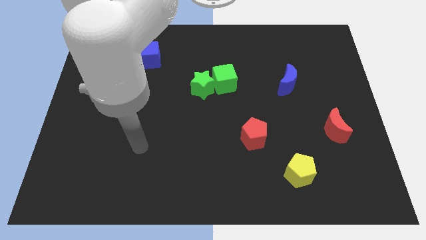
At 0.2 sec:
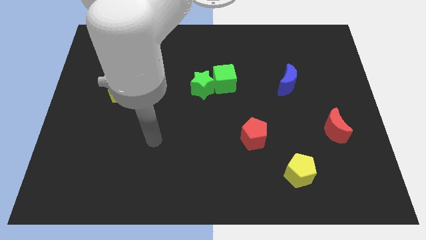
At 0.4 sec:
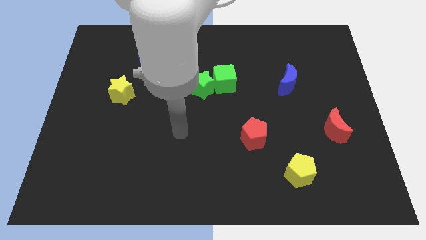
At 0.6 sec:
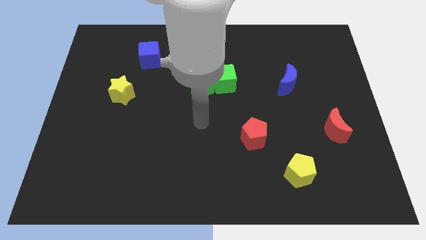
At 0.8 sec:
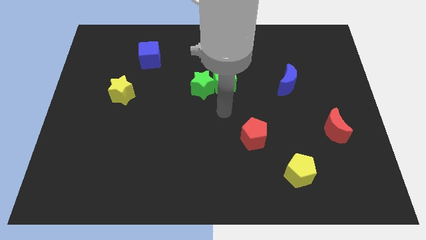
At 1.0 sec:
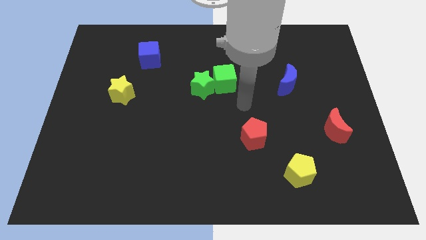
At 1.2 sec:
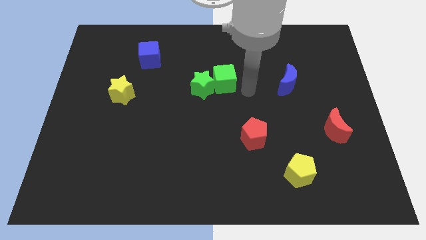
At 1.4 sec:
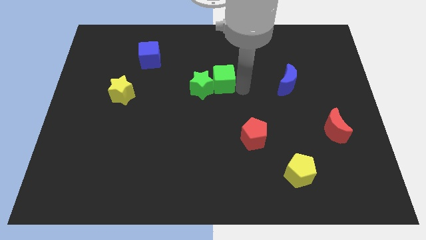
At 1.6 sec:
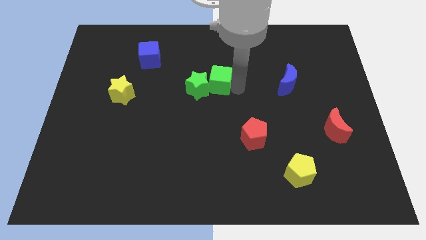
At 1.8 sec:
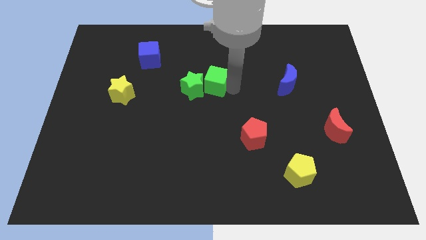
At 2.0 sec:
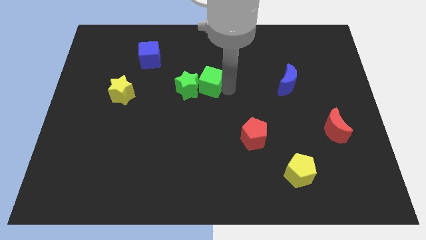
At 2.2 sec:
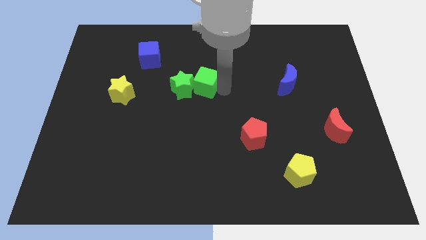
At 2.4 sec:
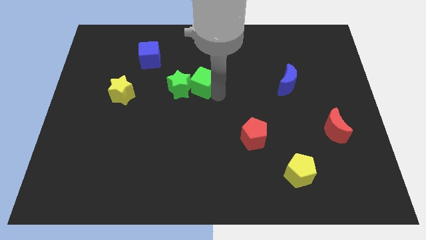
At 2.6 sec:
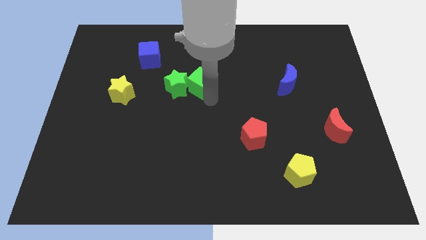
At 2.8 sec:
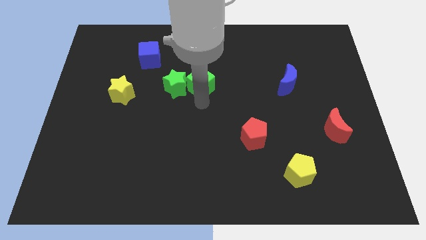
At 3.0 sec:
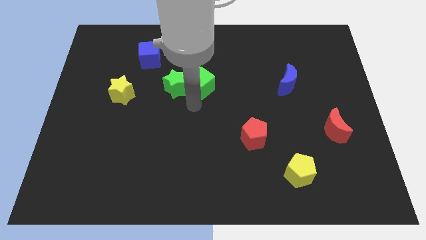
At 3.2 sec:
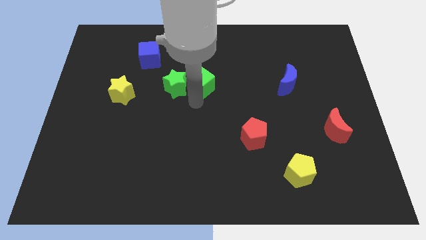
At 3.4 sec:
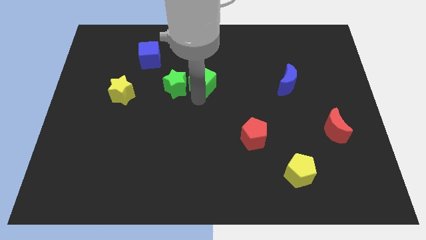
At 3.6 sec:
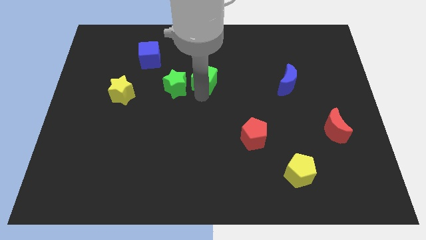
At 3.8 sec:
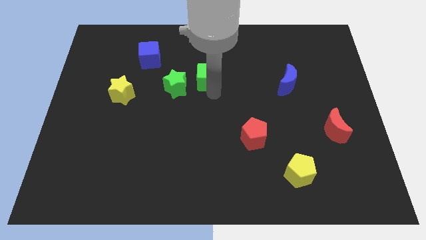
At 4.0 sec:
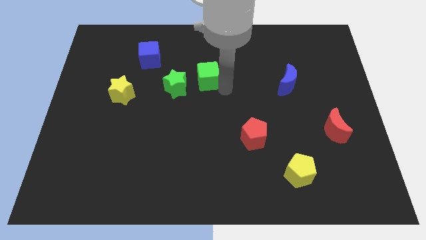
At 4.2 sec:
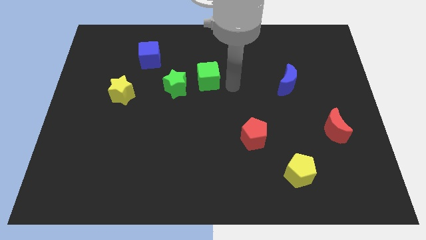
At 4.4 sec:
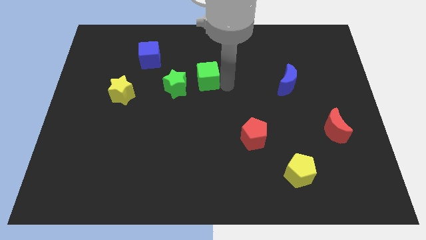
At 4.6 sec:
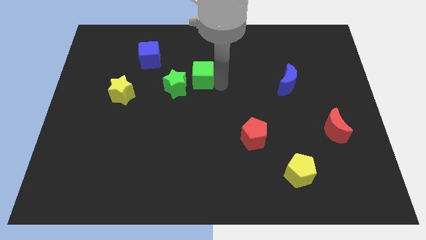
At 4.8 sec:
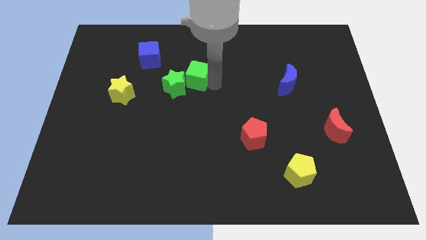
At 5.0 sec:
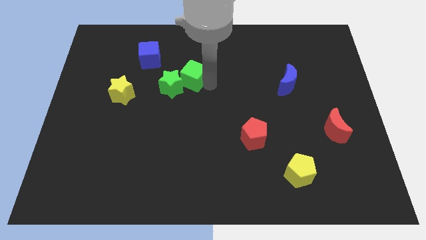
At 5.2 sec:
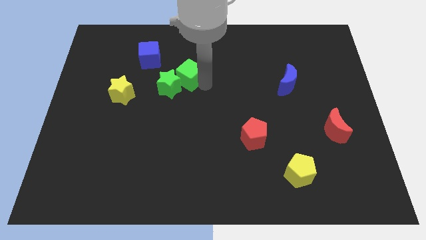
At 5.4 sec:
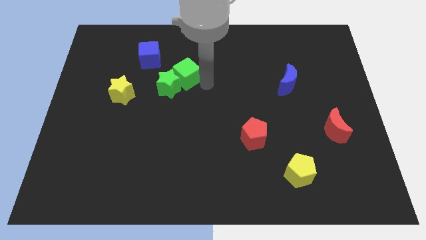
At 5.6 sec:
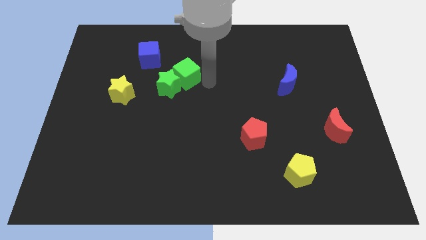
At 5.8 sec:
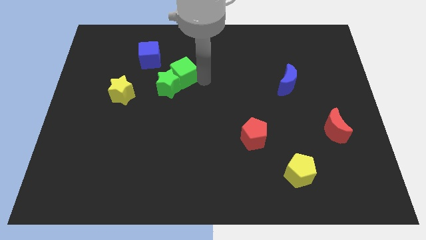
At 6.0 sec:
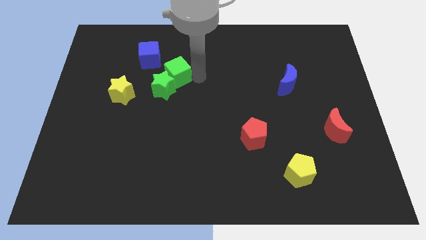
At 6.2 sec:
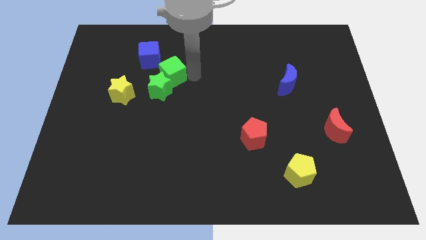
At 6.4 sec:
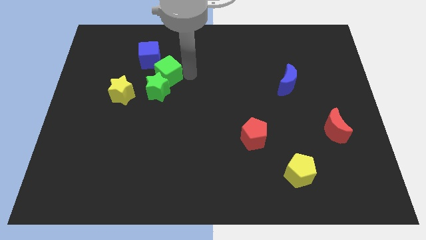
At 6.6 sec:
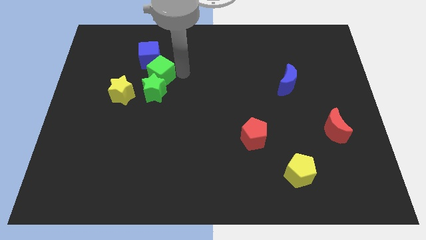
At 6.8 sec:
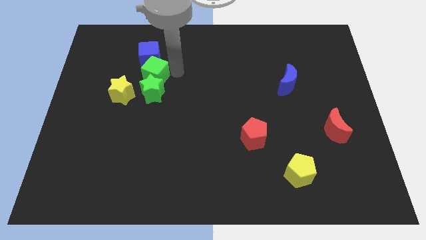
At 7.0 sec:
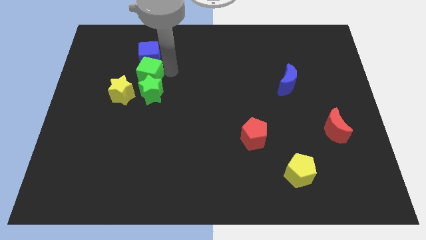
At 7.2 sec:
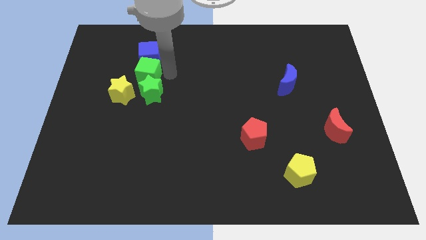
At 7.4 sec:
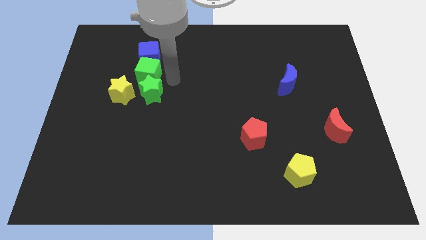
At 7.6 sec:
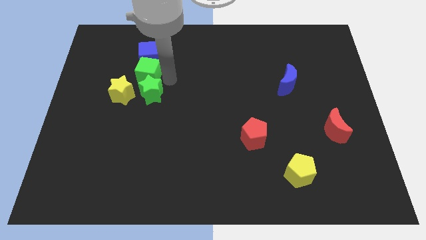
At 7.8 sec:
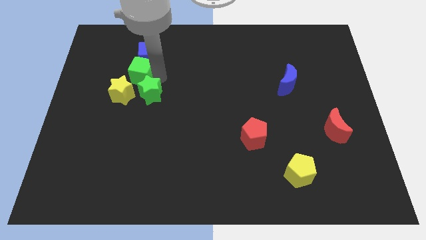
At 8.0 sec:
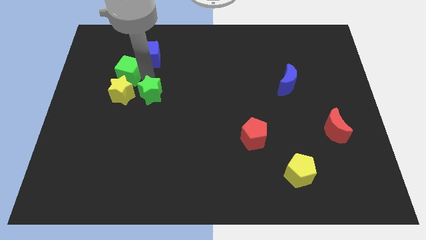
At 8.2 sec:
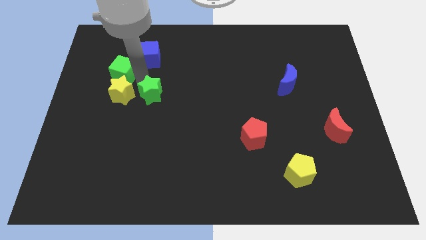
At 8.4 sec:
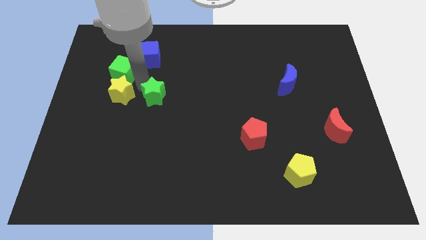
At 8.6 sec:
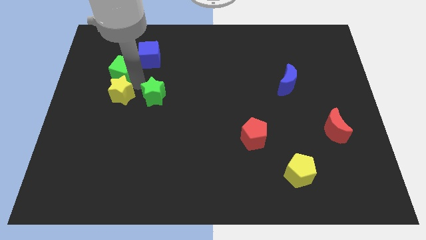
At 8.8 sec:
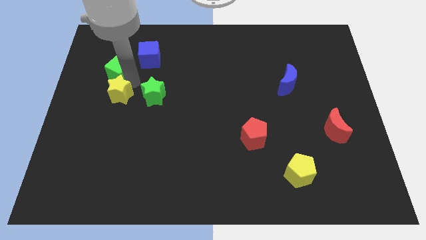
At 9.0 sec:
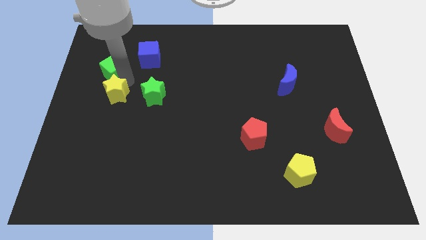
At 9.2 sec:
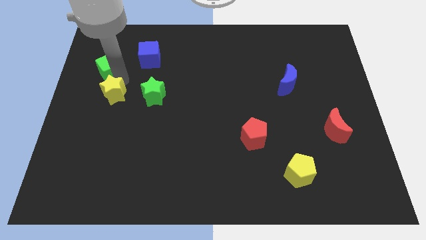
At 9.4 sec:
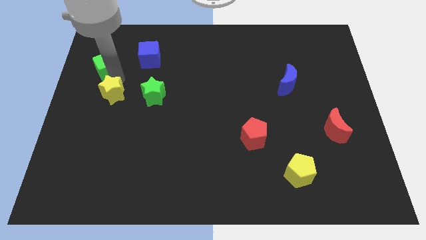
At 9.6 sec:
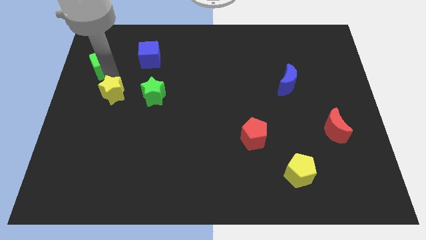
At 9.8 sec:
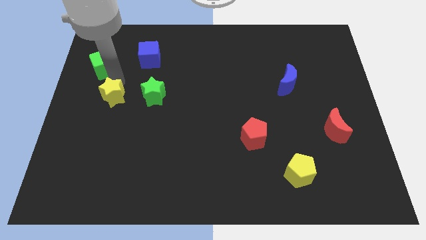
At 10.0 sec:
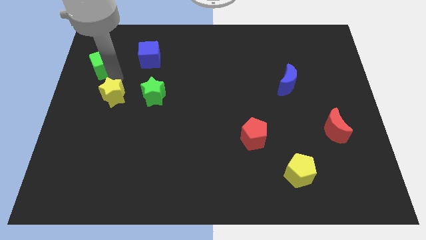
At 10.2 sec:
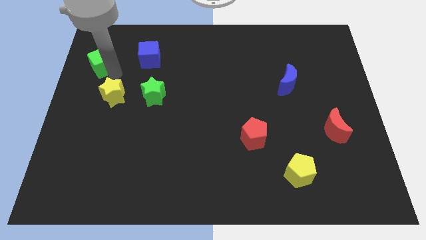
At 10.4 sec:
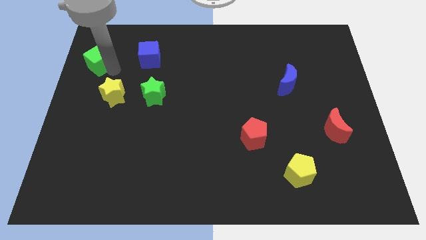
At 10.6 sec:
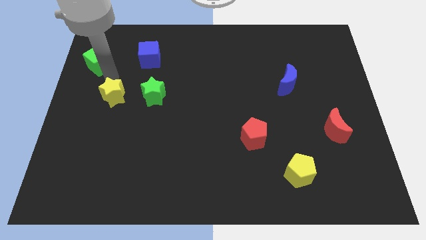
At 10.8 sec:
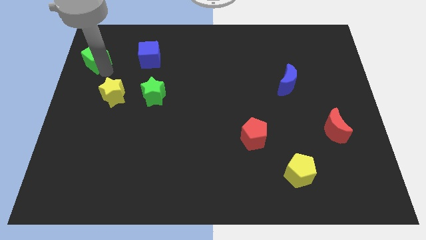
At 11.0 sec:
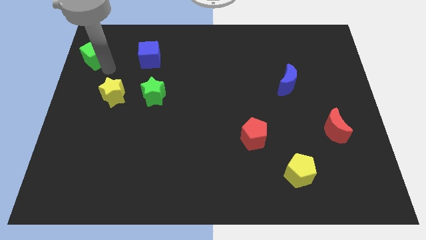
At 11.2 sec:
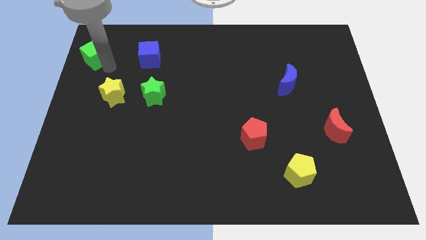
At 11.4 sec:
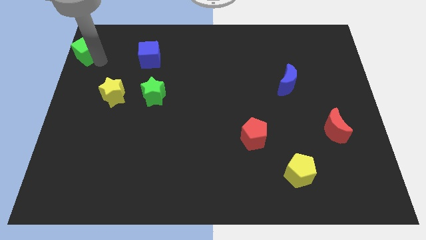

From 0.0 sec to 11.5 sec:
slide the green cube to the top left of the board

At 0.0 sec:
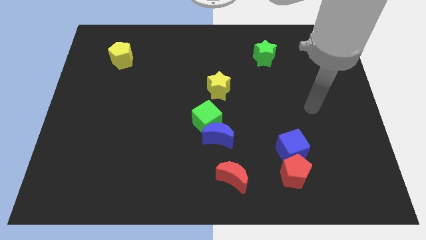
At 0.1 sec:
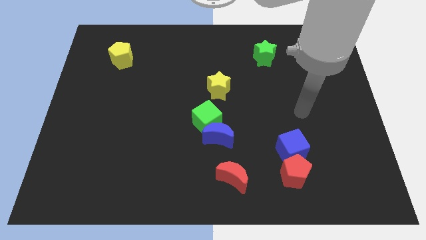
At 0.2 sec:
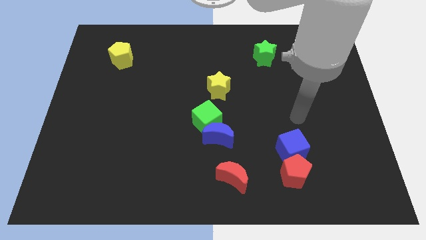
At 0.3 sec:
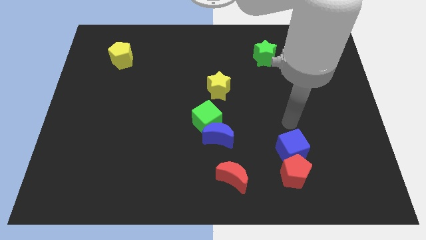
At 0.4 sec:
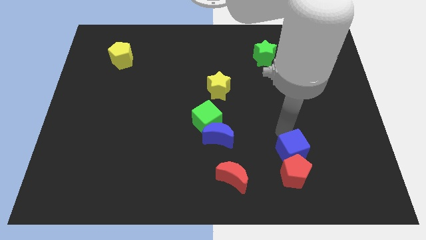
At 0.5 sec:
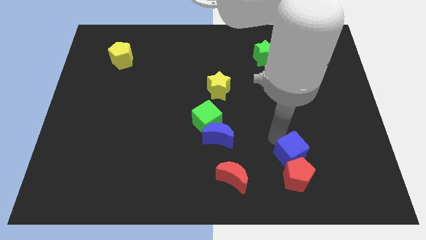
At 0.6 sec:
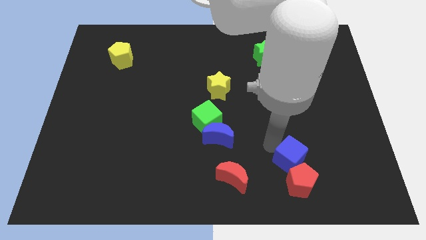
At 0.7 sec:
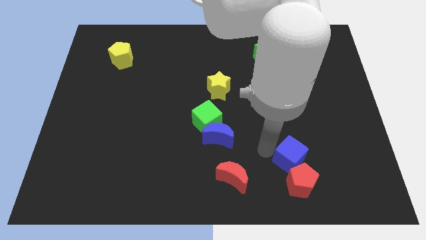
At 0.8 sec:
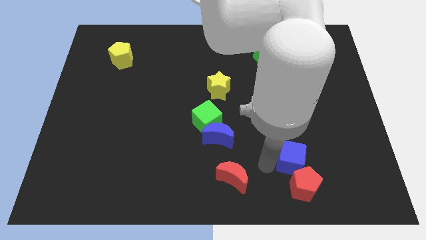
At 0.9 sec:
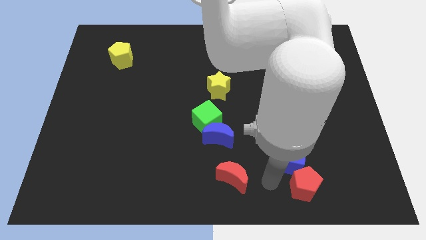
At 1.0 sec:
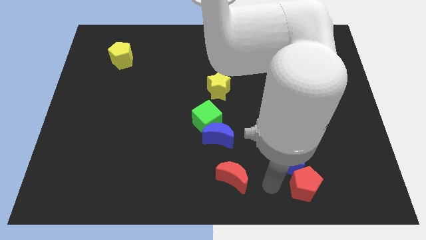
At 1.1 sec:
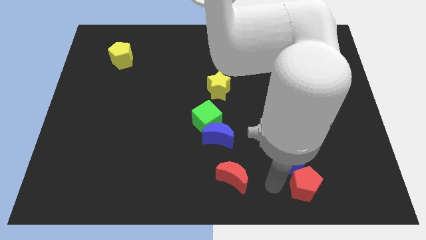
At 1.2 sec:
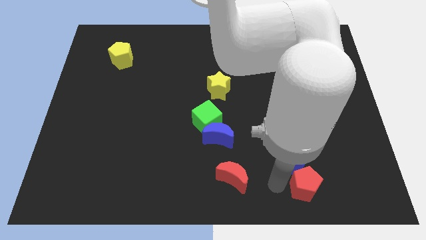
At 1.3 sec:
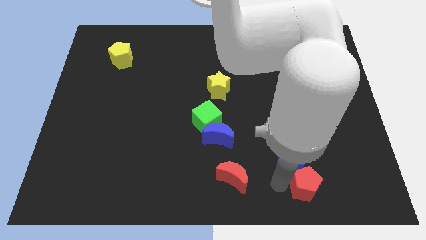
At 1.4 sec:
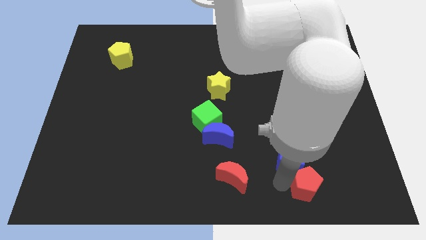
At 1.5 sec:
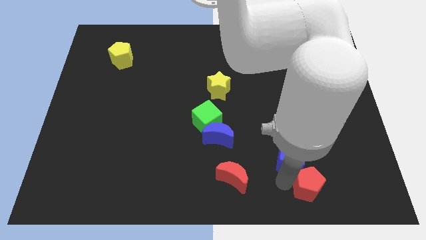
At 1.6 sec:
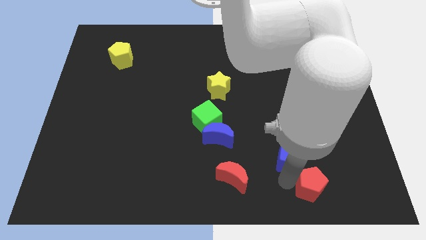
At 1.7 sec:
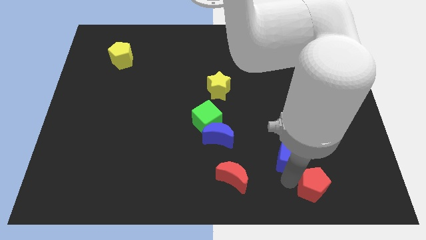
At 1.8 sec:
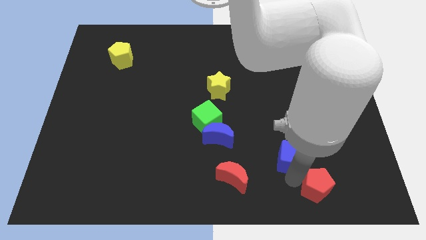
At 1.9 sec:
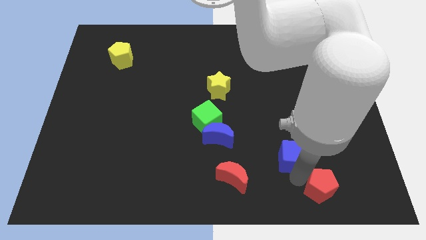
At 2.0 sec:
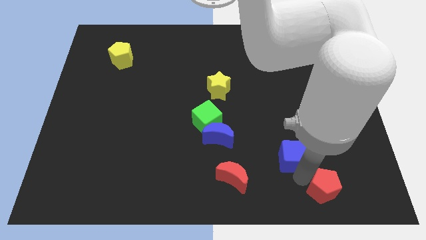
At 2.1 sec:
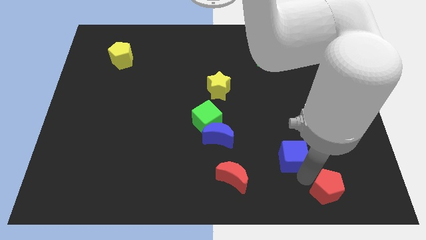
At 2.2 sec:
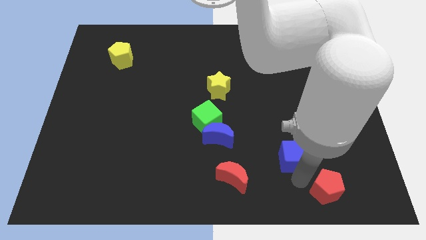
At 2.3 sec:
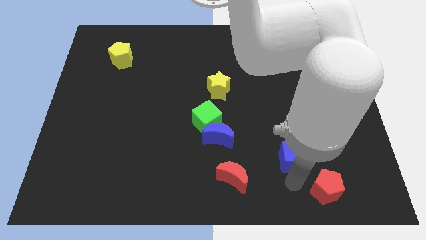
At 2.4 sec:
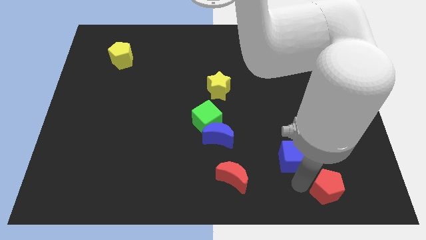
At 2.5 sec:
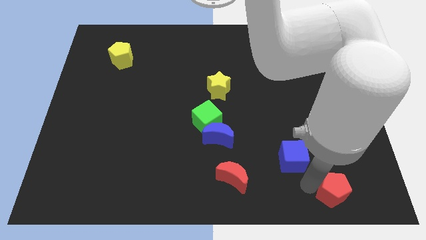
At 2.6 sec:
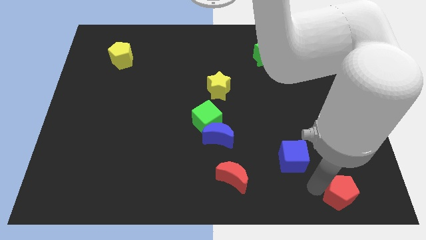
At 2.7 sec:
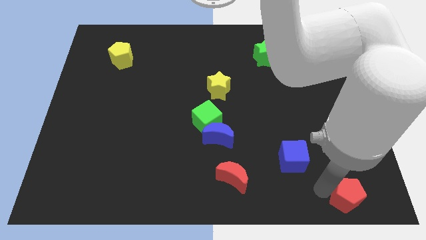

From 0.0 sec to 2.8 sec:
slide the red pentagon to the bottom right of the board
